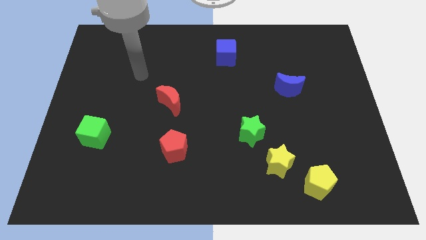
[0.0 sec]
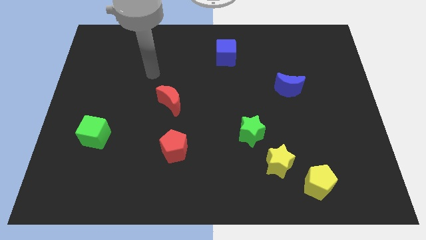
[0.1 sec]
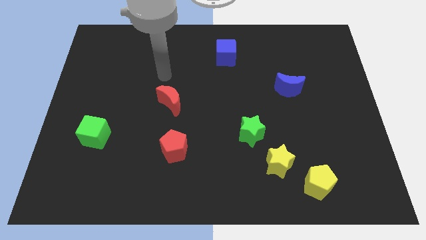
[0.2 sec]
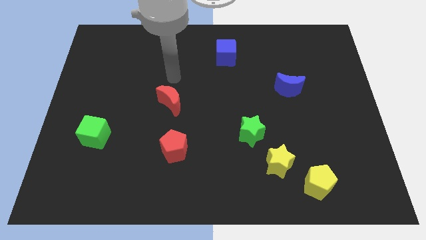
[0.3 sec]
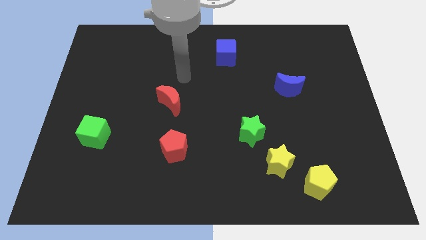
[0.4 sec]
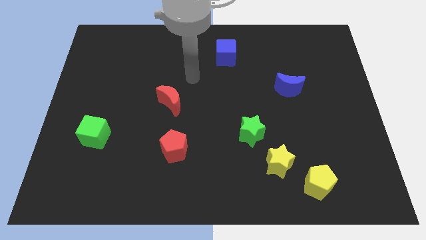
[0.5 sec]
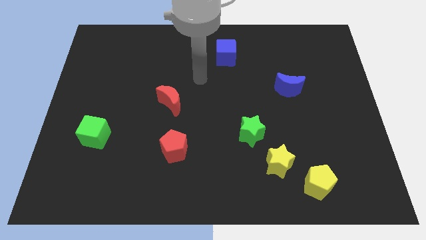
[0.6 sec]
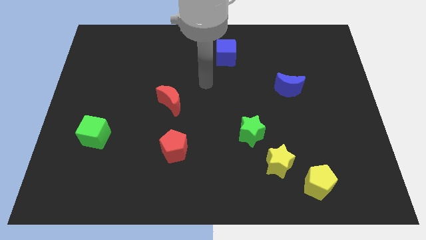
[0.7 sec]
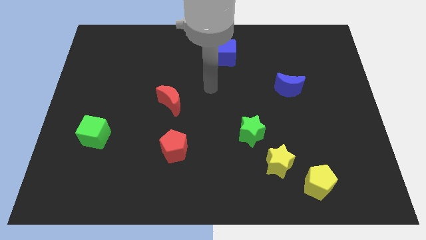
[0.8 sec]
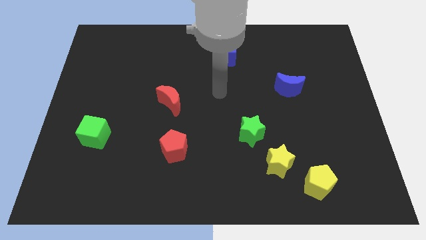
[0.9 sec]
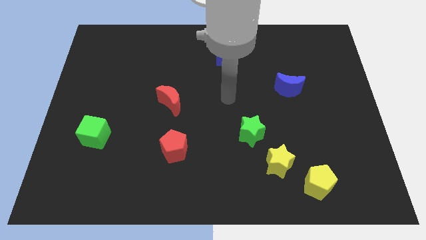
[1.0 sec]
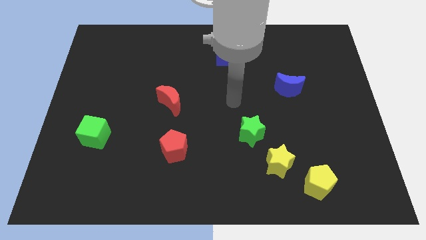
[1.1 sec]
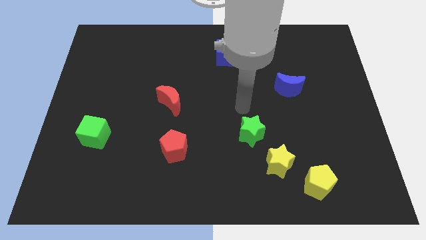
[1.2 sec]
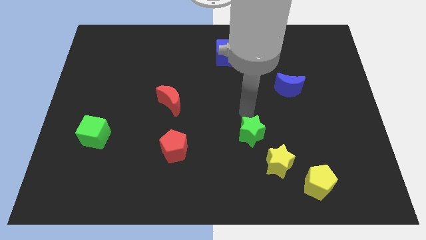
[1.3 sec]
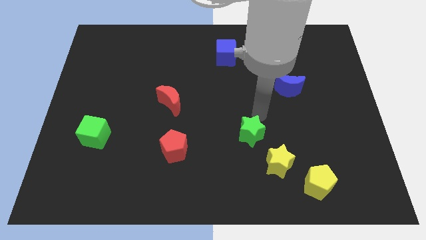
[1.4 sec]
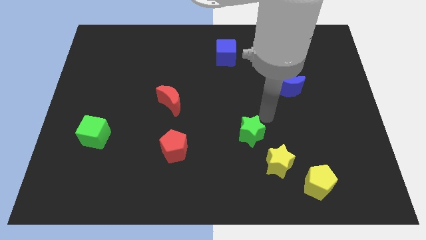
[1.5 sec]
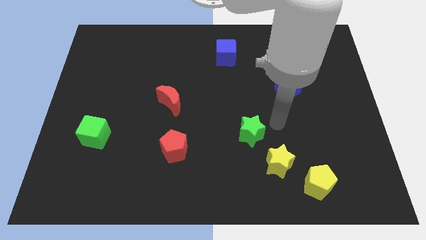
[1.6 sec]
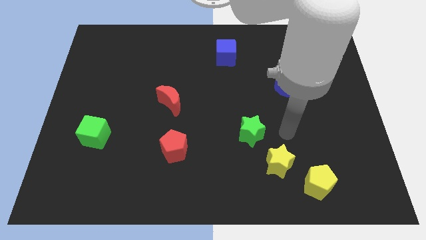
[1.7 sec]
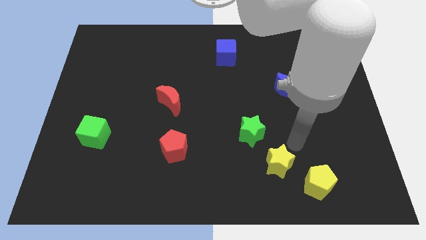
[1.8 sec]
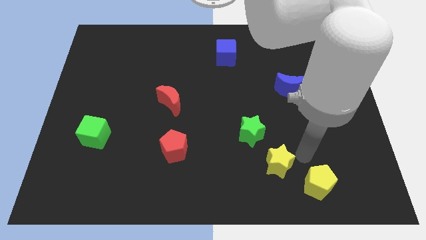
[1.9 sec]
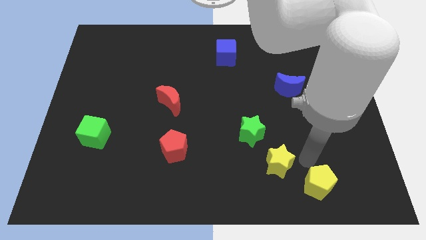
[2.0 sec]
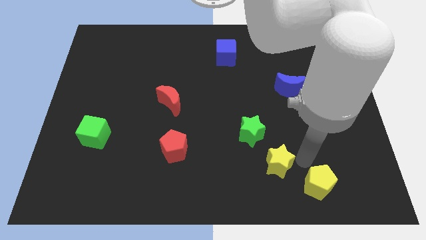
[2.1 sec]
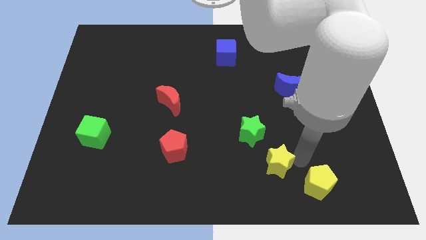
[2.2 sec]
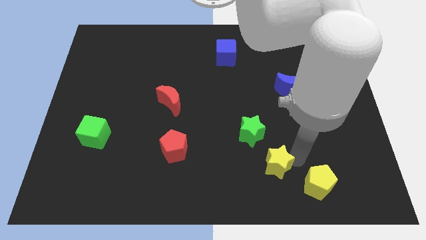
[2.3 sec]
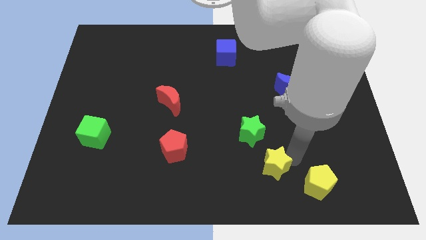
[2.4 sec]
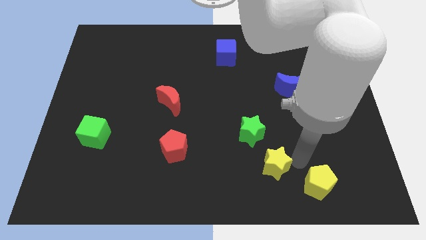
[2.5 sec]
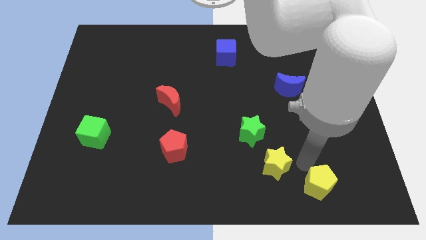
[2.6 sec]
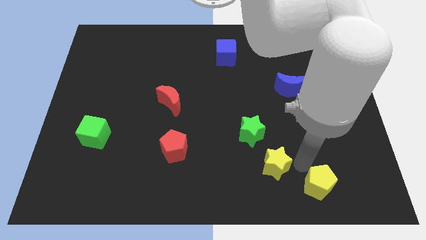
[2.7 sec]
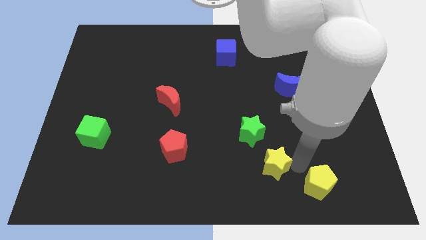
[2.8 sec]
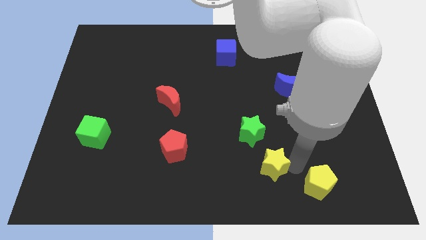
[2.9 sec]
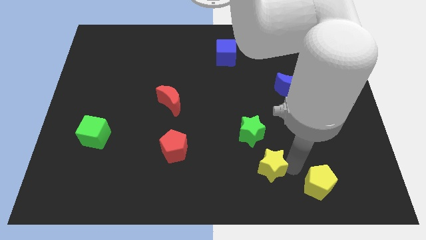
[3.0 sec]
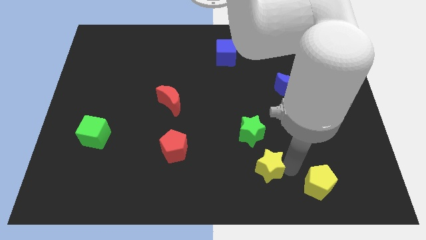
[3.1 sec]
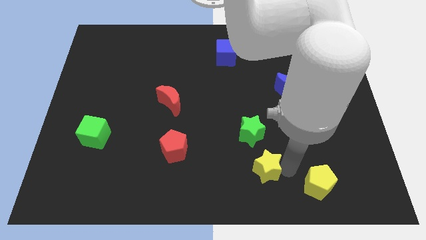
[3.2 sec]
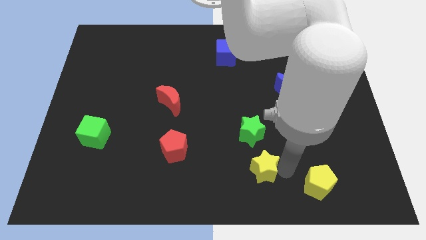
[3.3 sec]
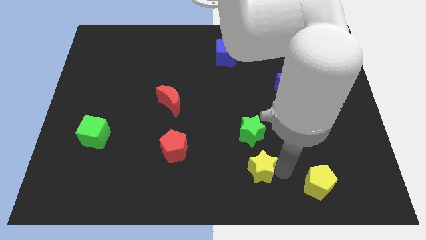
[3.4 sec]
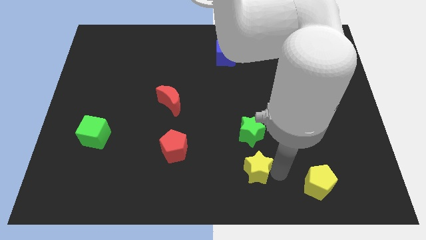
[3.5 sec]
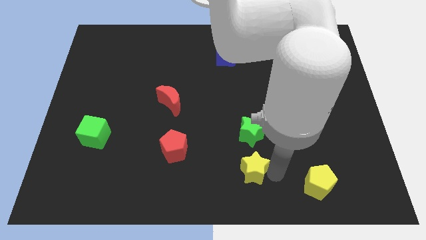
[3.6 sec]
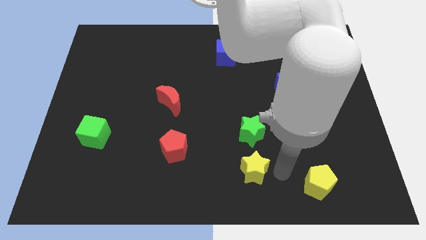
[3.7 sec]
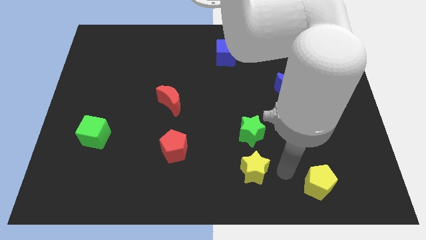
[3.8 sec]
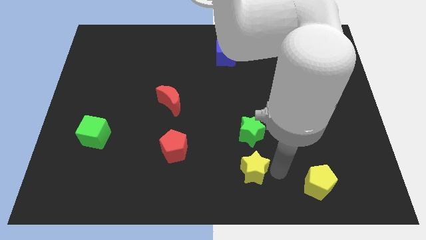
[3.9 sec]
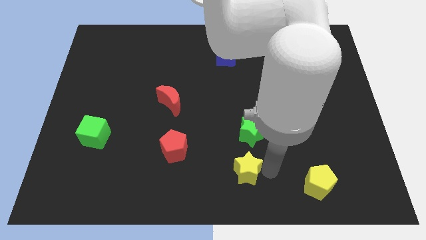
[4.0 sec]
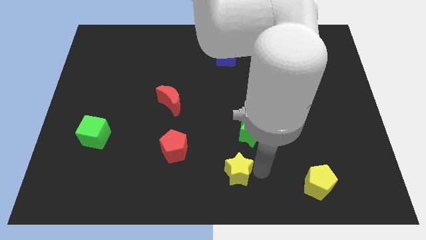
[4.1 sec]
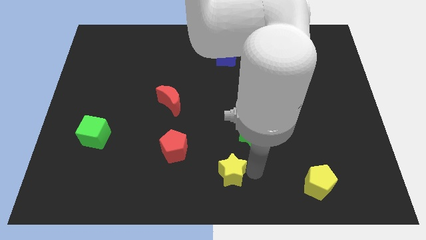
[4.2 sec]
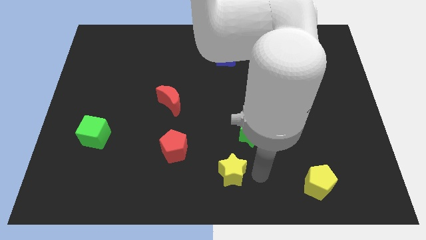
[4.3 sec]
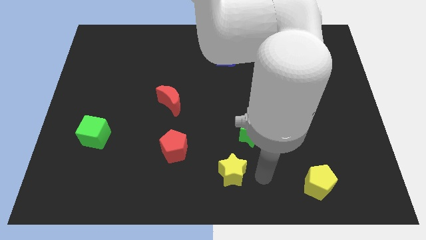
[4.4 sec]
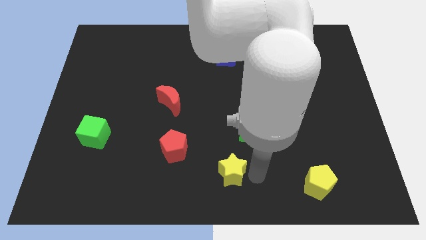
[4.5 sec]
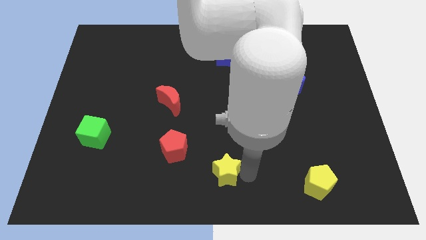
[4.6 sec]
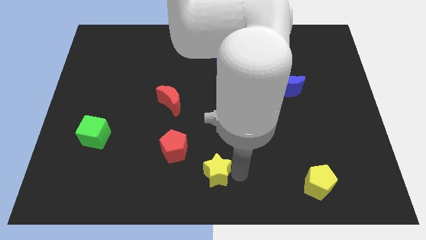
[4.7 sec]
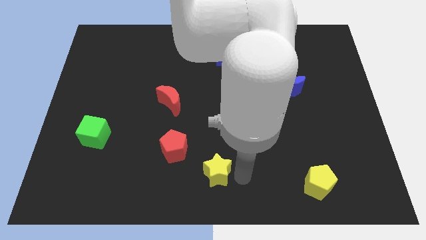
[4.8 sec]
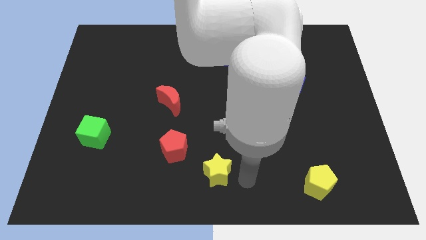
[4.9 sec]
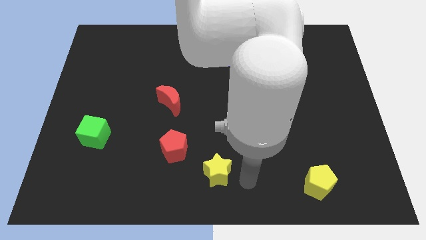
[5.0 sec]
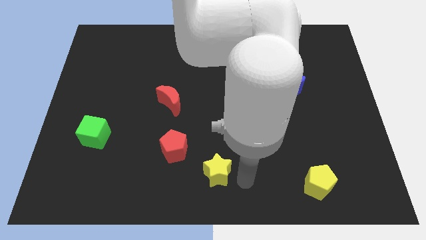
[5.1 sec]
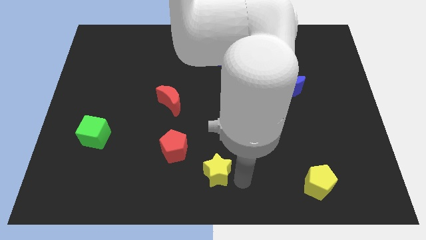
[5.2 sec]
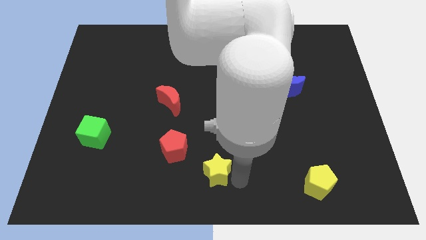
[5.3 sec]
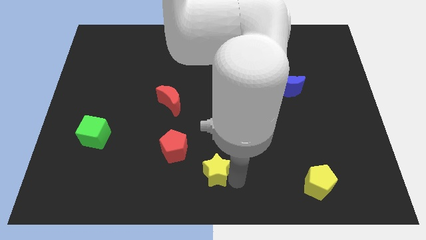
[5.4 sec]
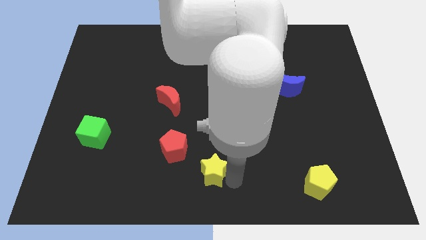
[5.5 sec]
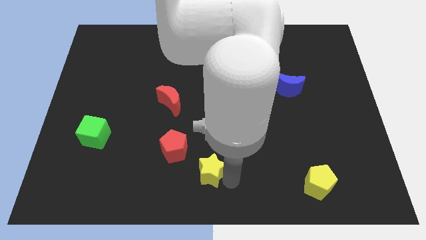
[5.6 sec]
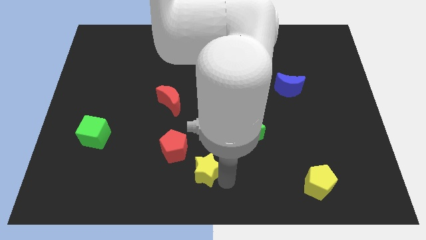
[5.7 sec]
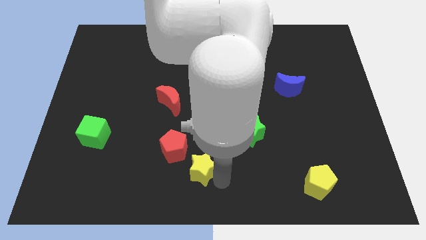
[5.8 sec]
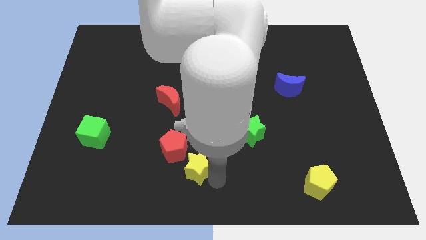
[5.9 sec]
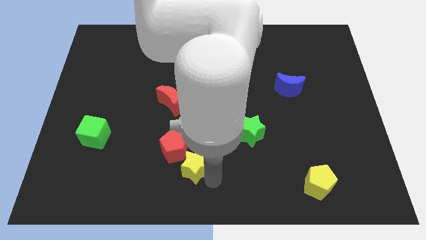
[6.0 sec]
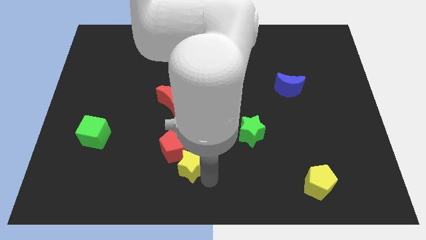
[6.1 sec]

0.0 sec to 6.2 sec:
slide the yellow star close to the red pentagon

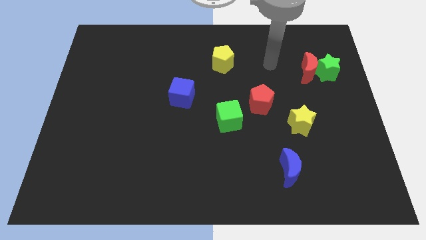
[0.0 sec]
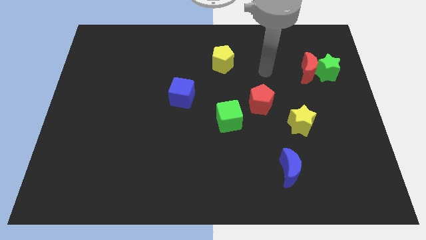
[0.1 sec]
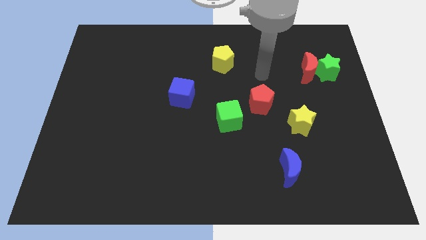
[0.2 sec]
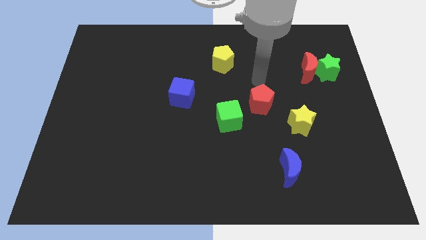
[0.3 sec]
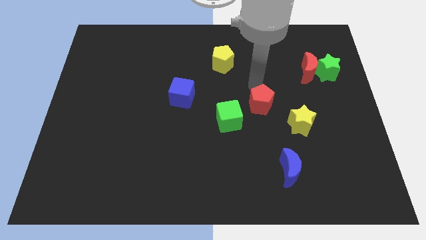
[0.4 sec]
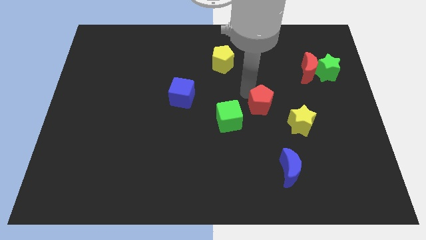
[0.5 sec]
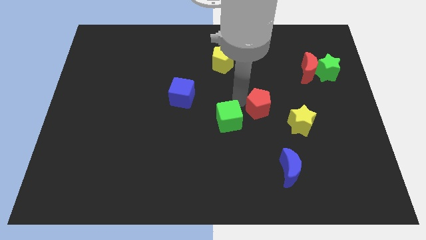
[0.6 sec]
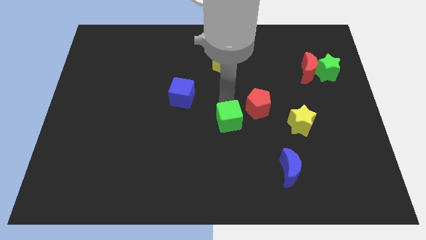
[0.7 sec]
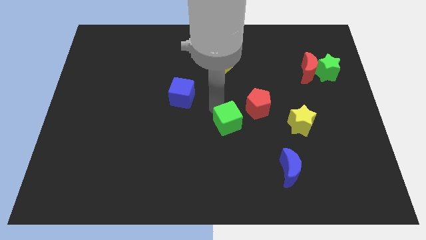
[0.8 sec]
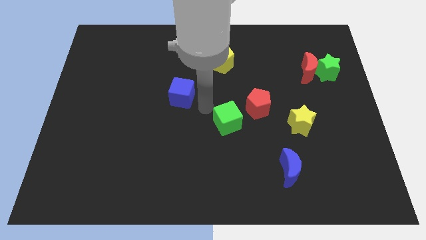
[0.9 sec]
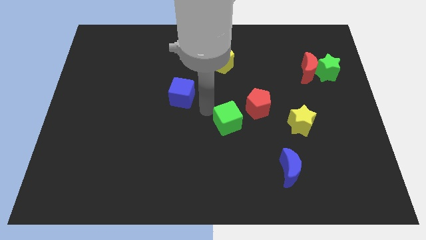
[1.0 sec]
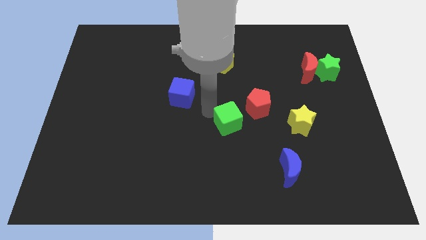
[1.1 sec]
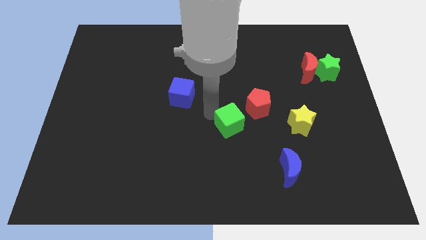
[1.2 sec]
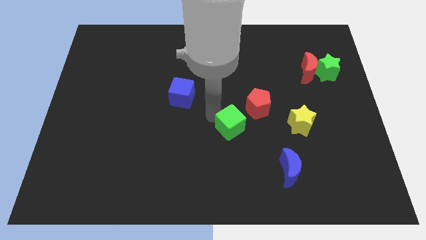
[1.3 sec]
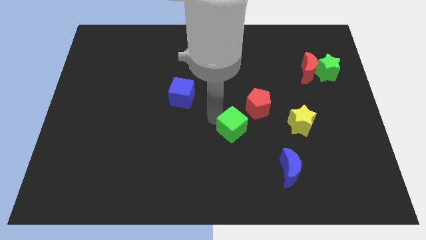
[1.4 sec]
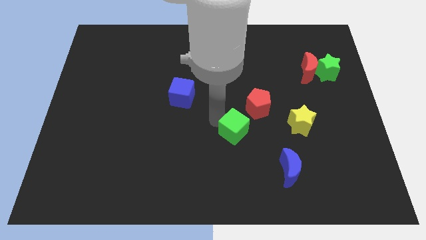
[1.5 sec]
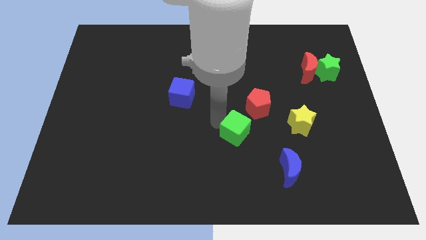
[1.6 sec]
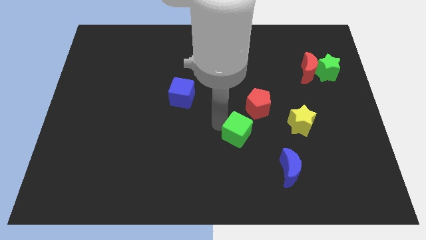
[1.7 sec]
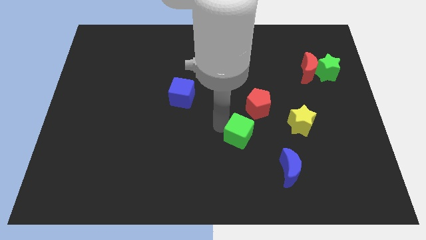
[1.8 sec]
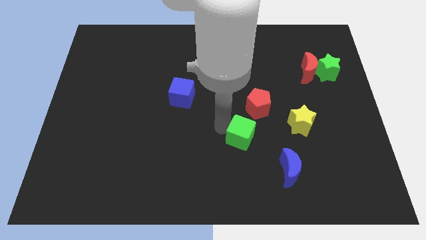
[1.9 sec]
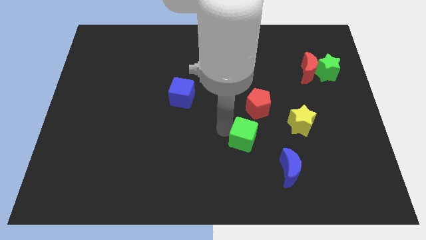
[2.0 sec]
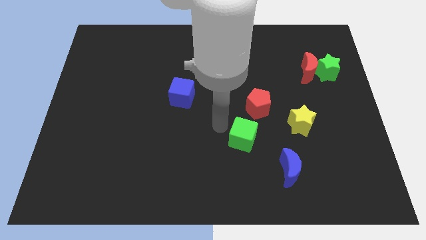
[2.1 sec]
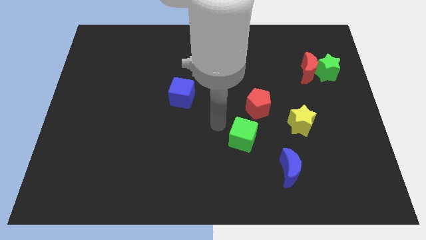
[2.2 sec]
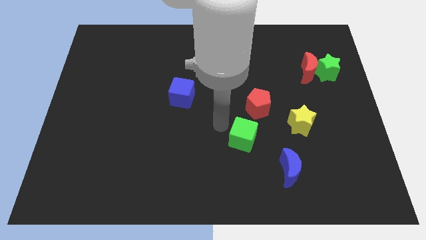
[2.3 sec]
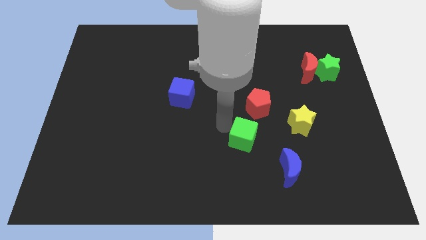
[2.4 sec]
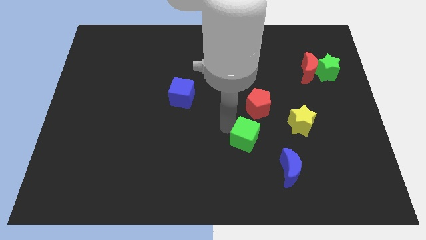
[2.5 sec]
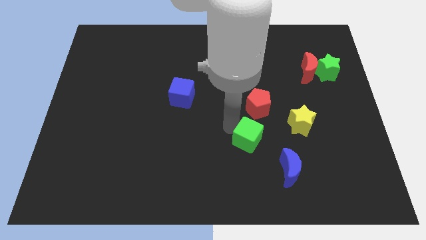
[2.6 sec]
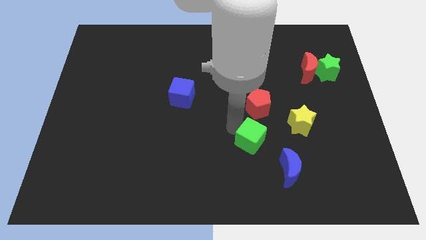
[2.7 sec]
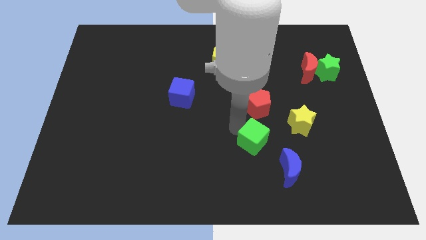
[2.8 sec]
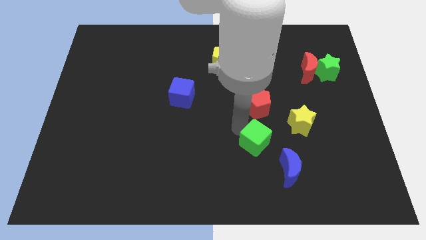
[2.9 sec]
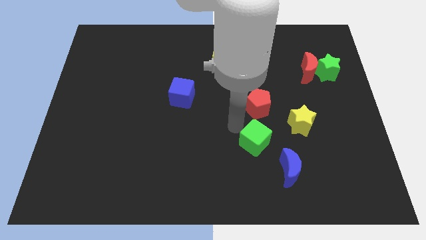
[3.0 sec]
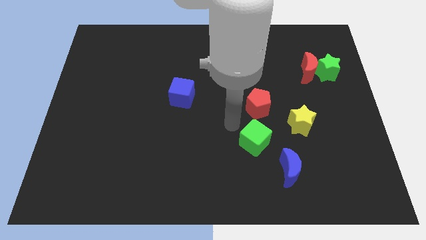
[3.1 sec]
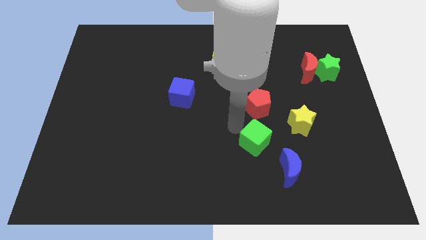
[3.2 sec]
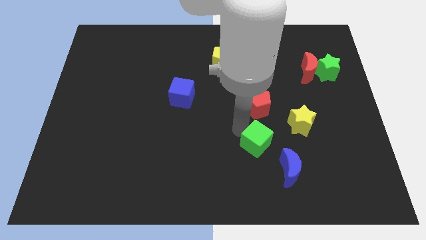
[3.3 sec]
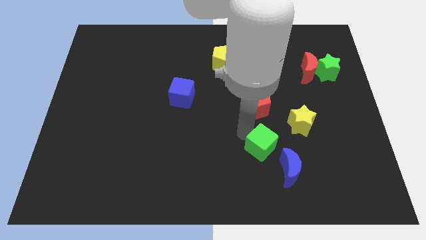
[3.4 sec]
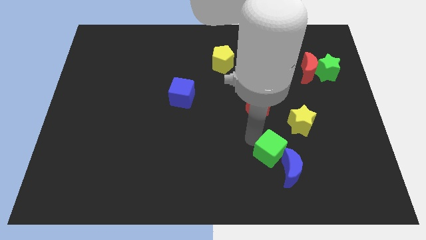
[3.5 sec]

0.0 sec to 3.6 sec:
move the green cube to the blue moon
